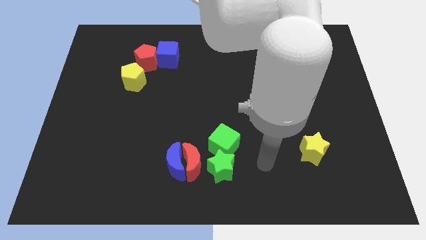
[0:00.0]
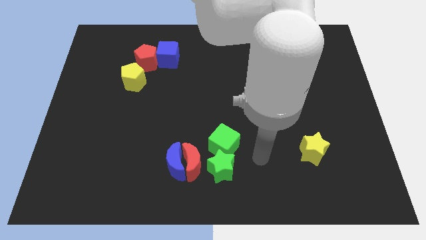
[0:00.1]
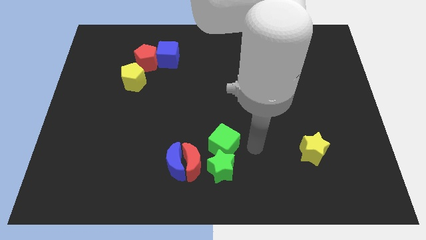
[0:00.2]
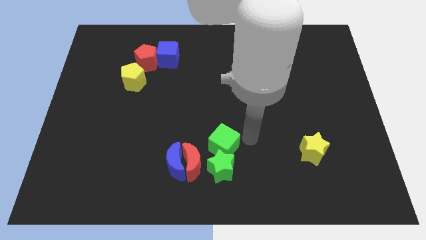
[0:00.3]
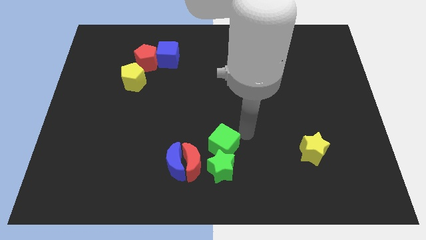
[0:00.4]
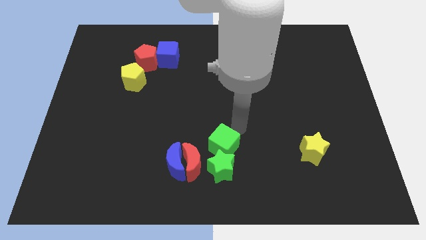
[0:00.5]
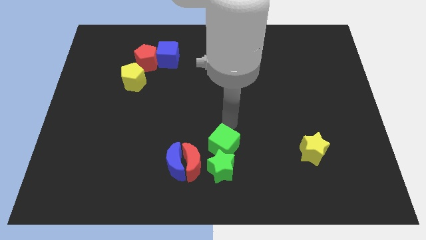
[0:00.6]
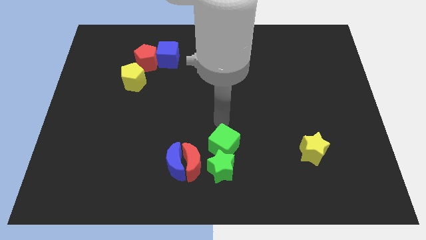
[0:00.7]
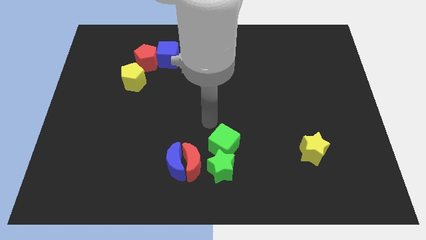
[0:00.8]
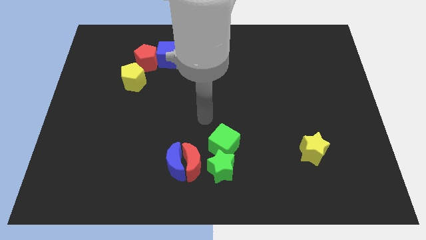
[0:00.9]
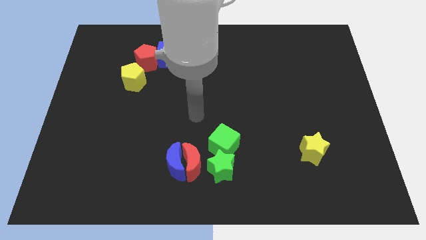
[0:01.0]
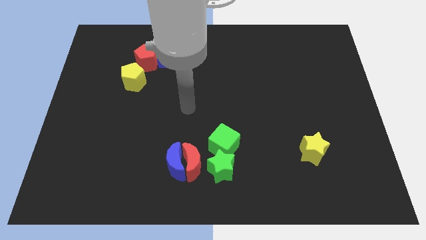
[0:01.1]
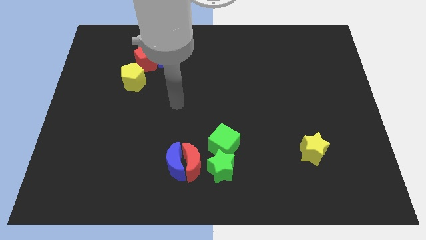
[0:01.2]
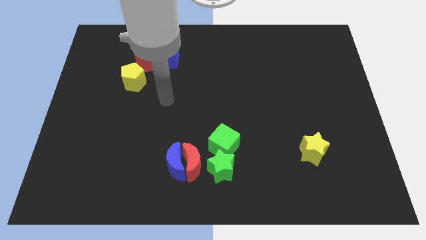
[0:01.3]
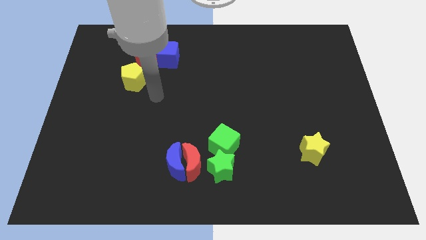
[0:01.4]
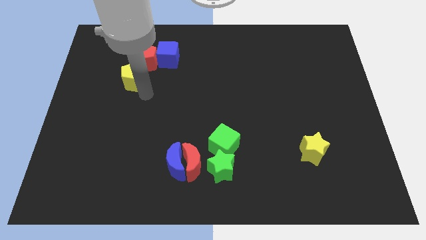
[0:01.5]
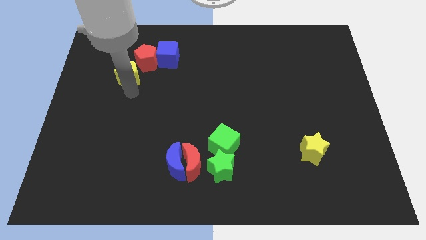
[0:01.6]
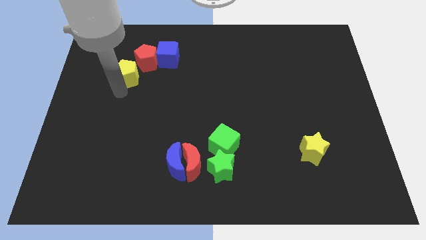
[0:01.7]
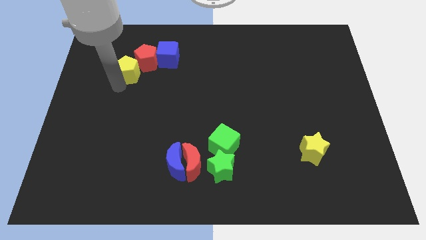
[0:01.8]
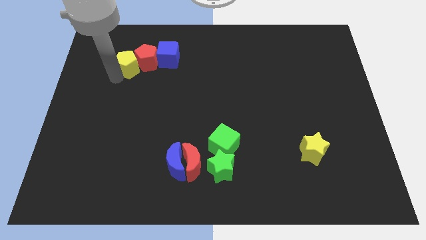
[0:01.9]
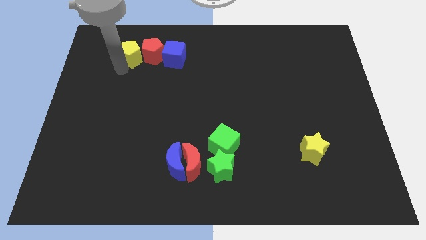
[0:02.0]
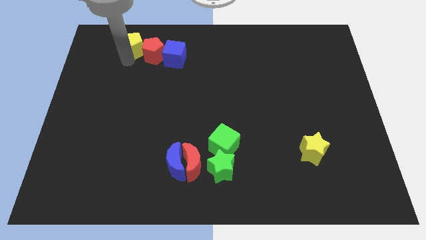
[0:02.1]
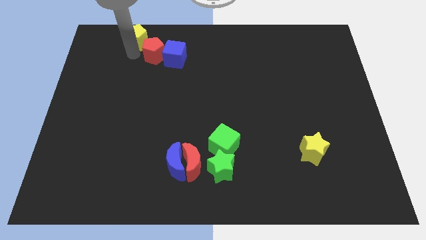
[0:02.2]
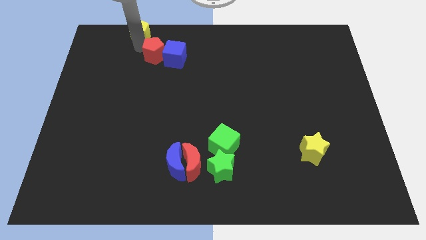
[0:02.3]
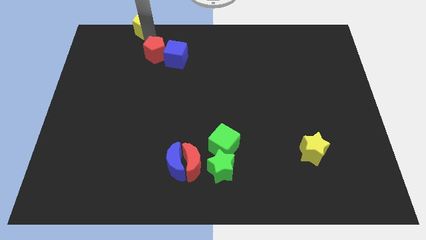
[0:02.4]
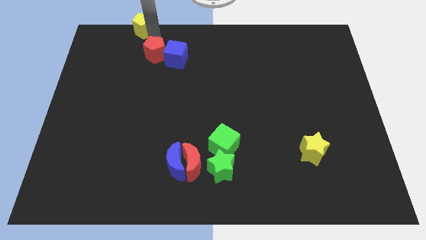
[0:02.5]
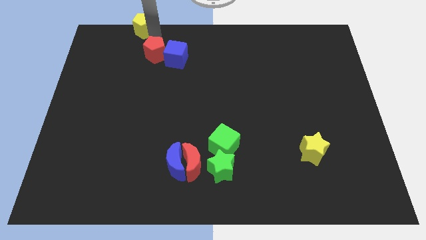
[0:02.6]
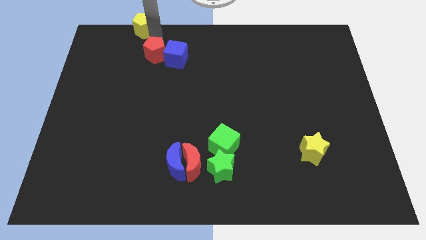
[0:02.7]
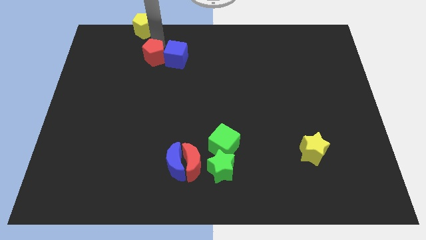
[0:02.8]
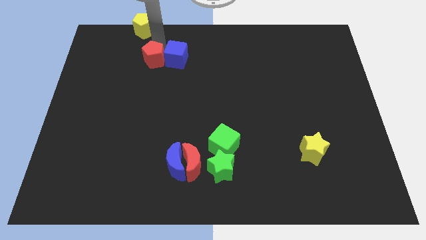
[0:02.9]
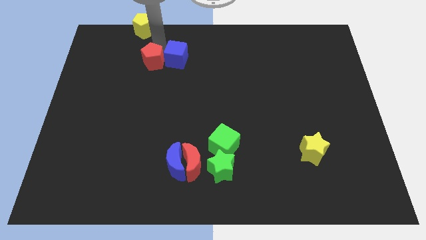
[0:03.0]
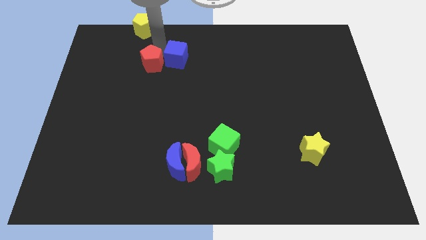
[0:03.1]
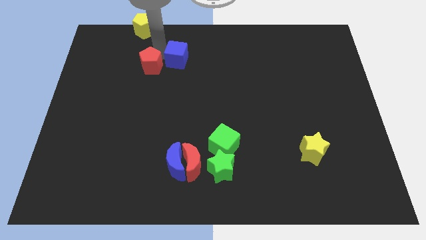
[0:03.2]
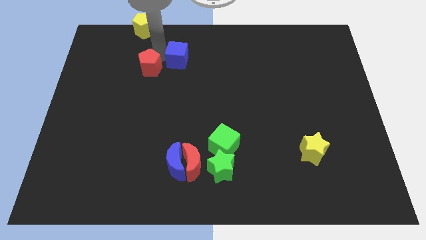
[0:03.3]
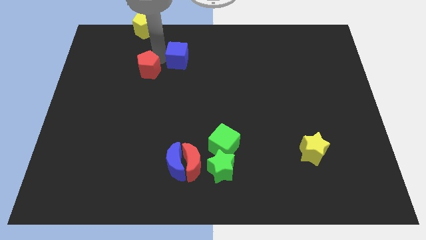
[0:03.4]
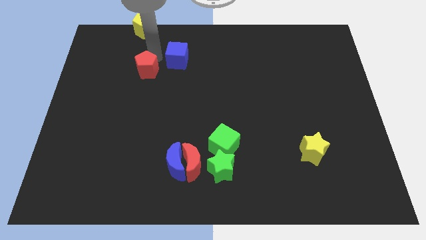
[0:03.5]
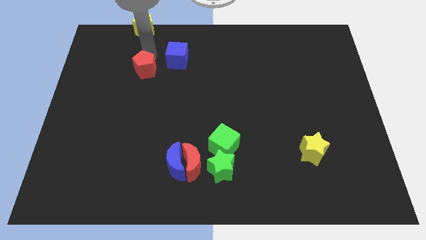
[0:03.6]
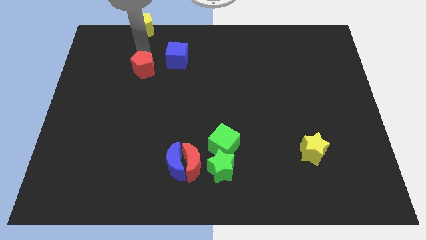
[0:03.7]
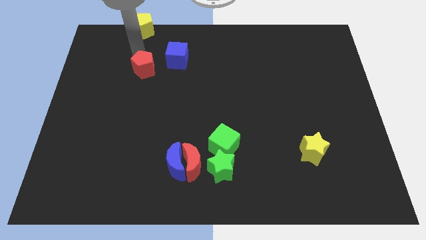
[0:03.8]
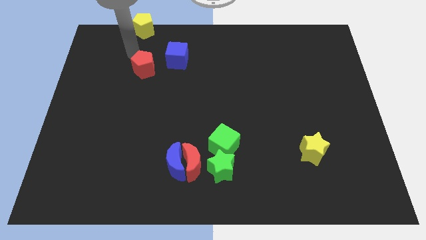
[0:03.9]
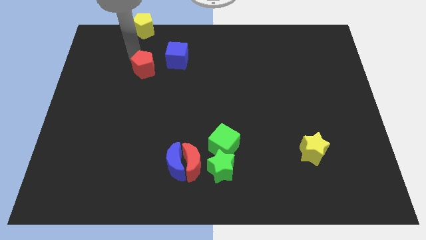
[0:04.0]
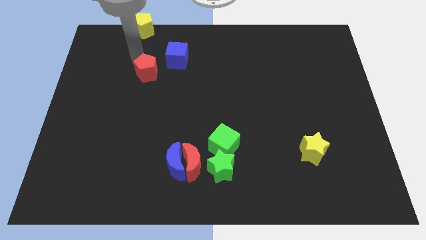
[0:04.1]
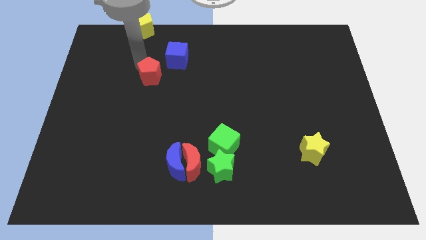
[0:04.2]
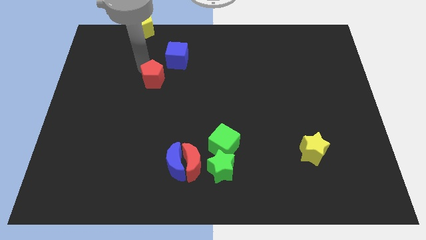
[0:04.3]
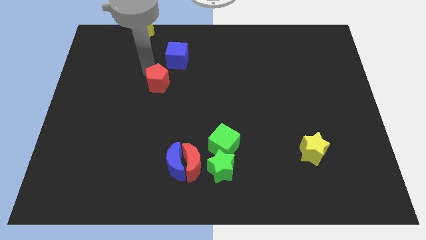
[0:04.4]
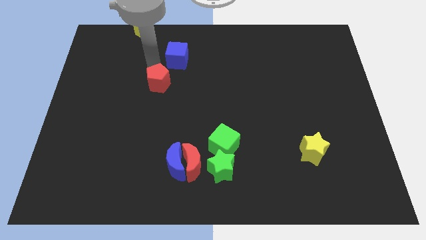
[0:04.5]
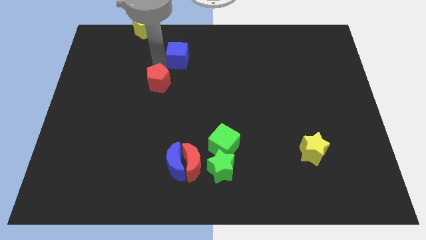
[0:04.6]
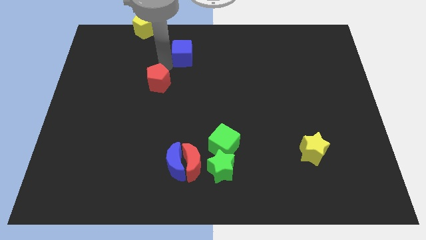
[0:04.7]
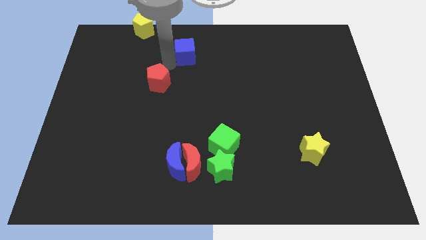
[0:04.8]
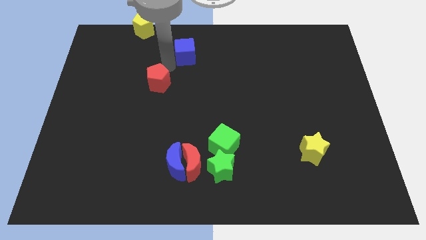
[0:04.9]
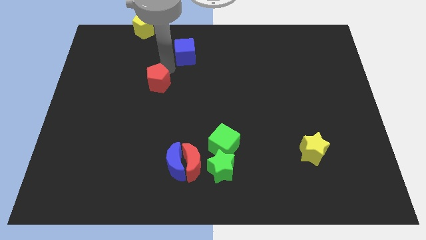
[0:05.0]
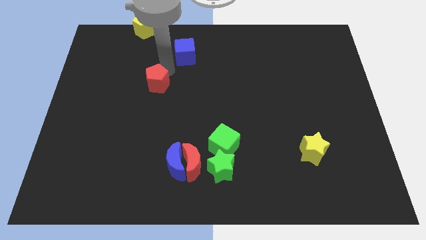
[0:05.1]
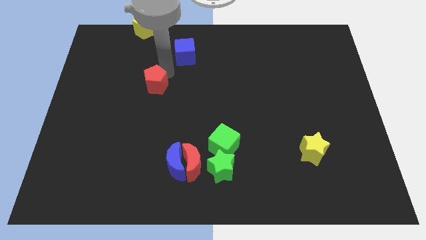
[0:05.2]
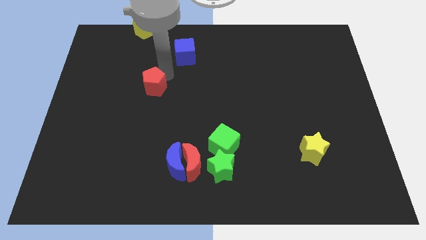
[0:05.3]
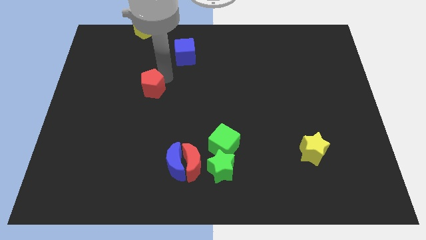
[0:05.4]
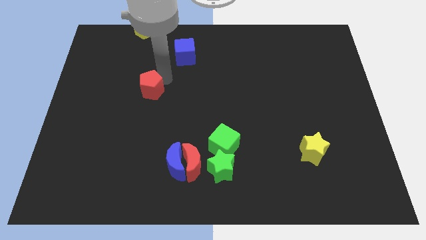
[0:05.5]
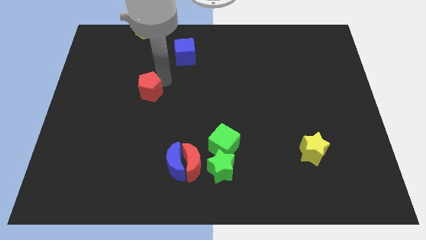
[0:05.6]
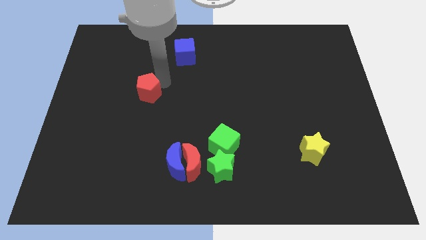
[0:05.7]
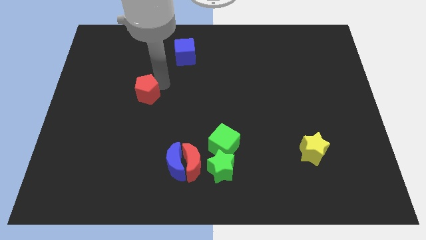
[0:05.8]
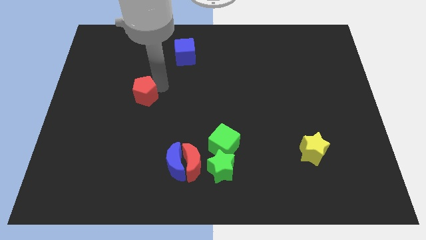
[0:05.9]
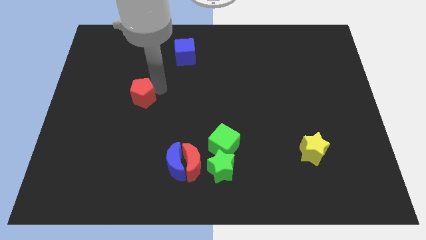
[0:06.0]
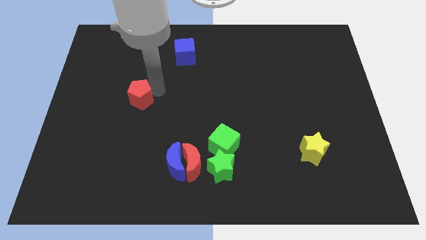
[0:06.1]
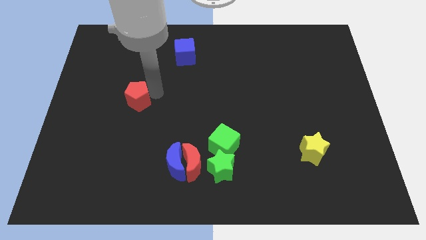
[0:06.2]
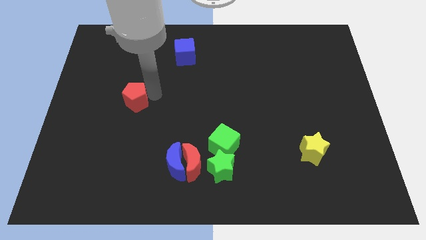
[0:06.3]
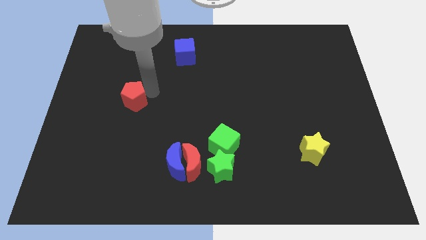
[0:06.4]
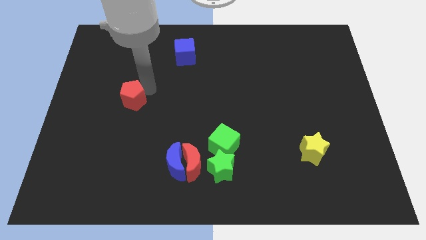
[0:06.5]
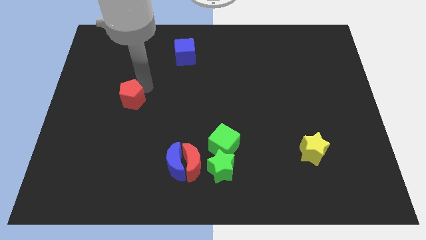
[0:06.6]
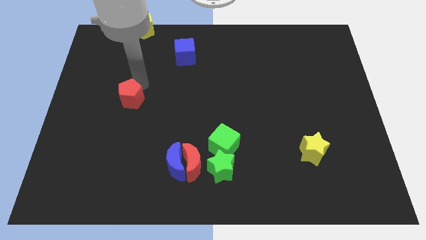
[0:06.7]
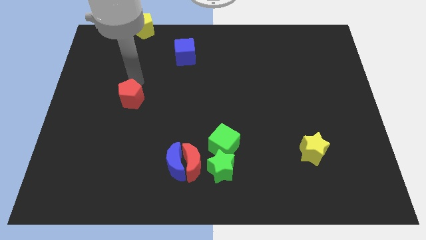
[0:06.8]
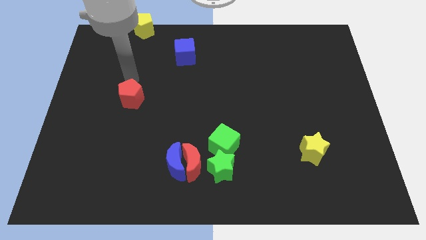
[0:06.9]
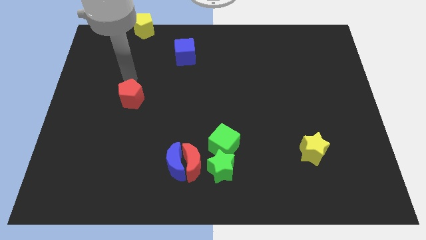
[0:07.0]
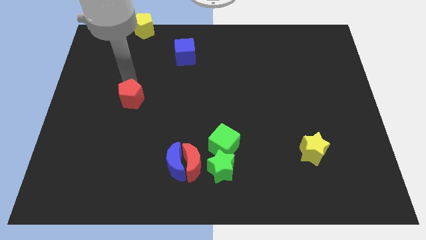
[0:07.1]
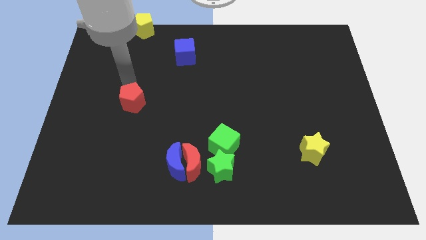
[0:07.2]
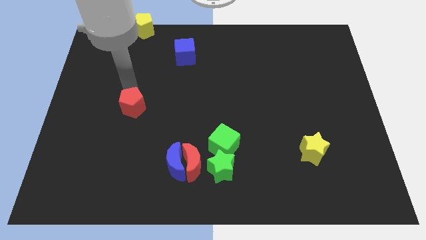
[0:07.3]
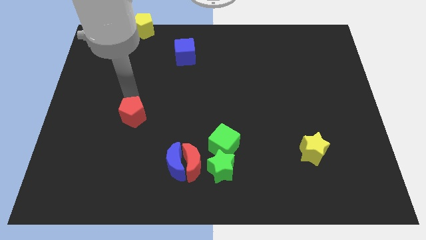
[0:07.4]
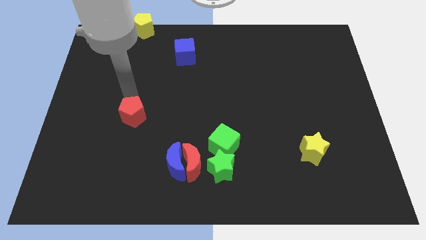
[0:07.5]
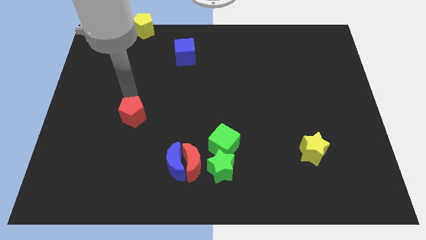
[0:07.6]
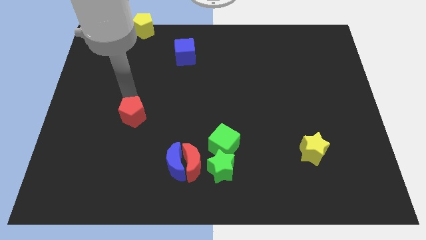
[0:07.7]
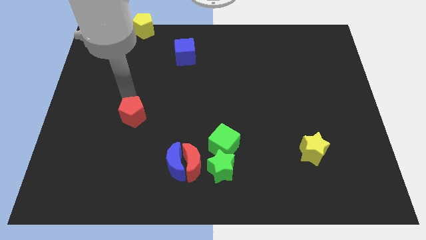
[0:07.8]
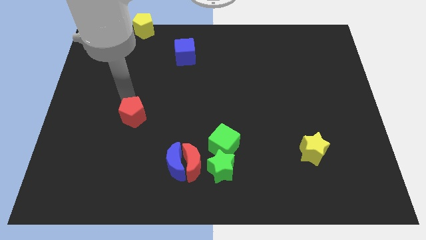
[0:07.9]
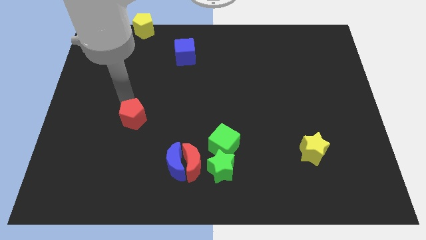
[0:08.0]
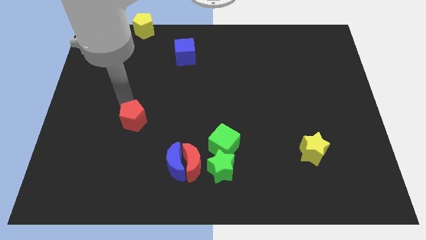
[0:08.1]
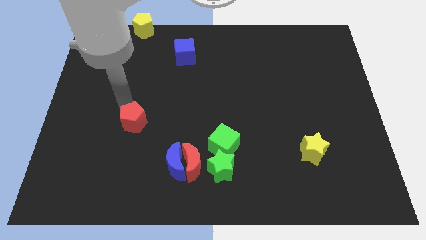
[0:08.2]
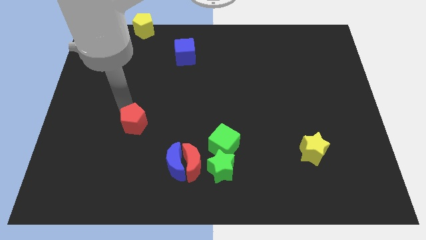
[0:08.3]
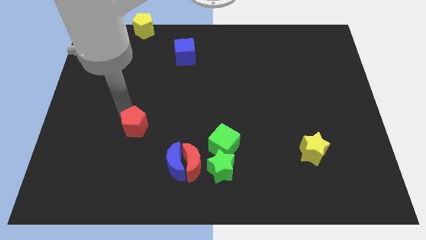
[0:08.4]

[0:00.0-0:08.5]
move the red pentagon down
